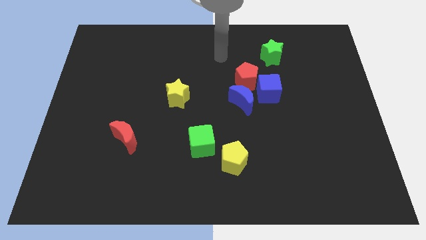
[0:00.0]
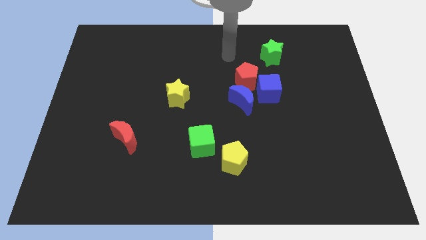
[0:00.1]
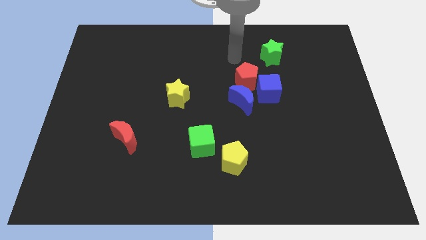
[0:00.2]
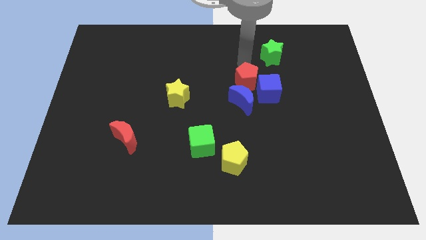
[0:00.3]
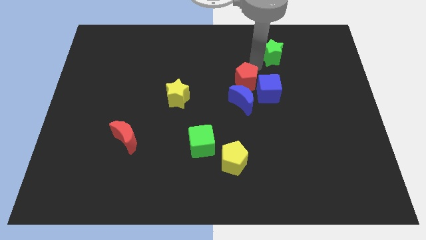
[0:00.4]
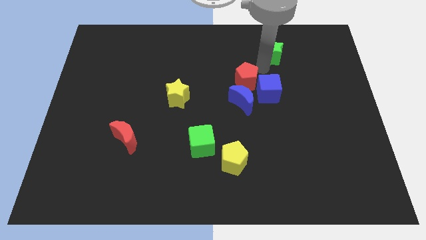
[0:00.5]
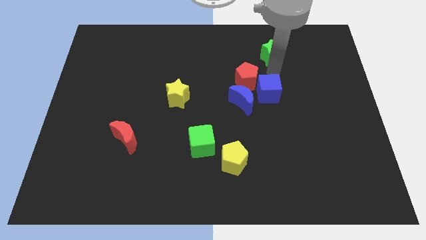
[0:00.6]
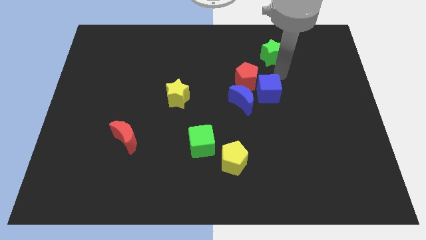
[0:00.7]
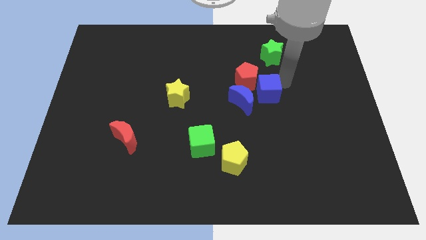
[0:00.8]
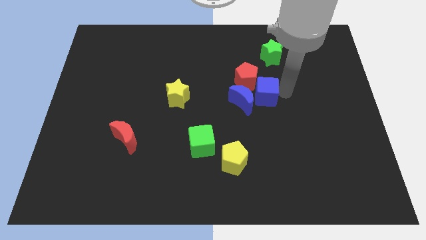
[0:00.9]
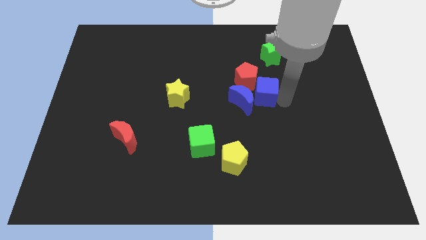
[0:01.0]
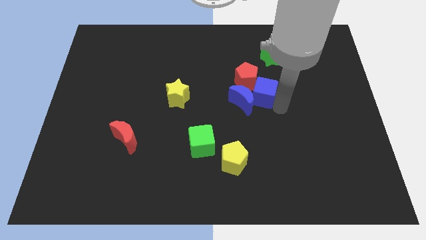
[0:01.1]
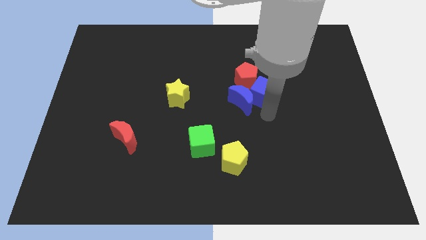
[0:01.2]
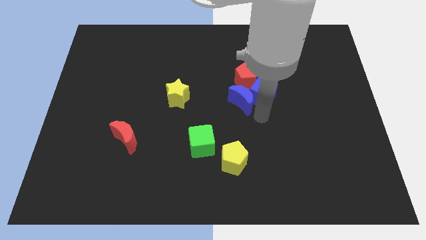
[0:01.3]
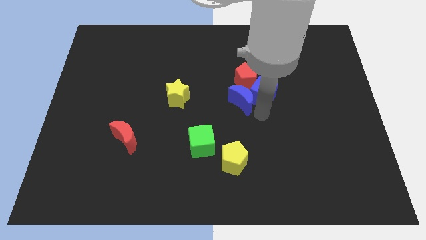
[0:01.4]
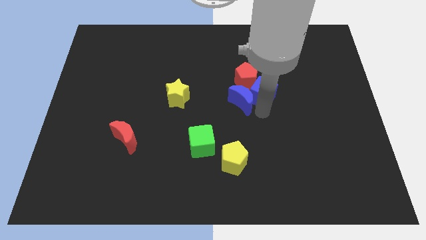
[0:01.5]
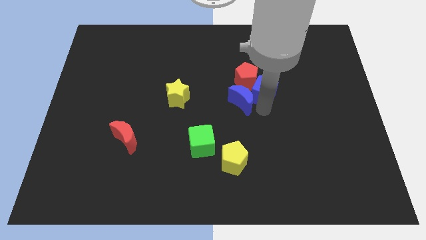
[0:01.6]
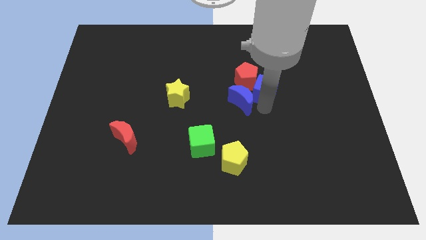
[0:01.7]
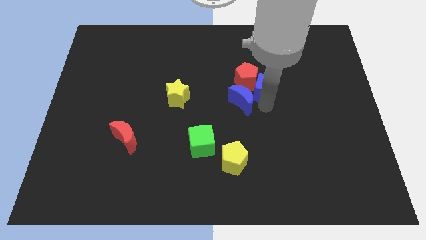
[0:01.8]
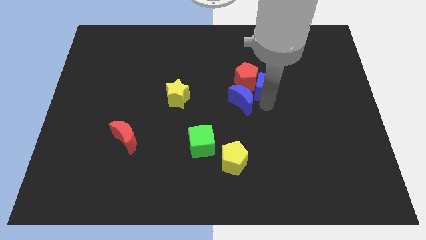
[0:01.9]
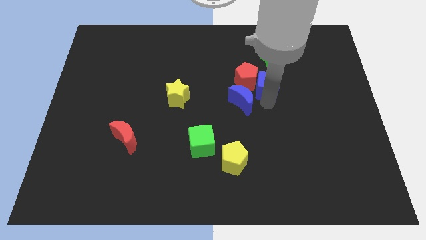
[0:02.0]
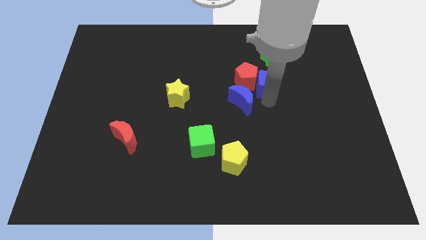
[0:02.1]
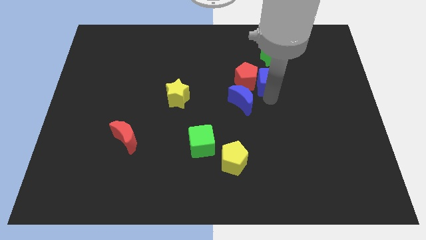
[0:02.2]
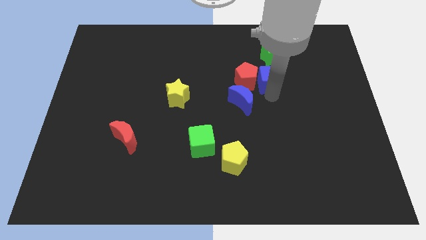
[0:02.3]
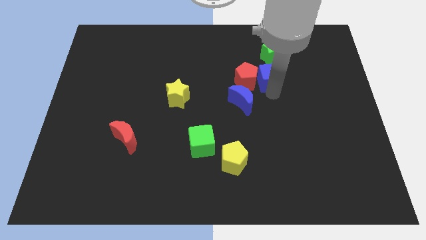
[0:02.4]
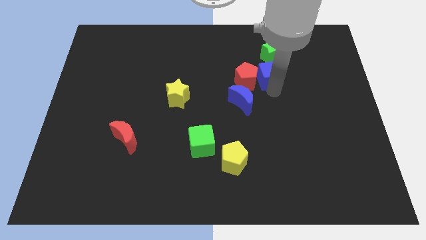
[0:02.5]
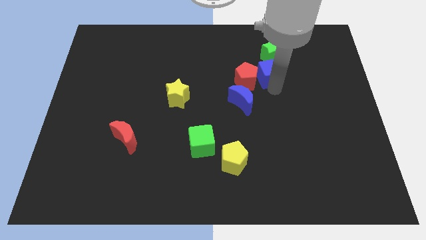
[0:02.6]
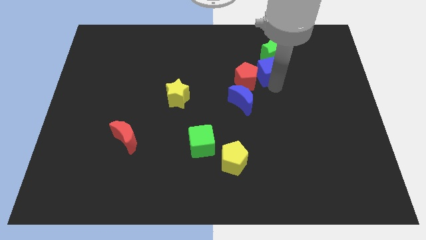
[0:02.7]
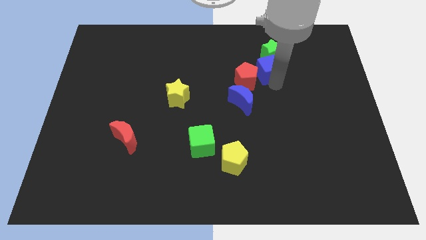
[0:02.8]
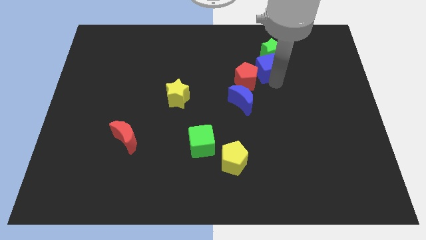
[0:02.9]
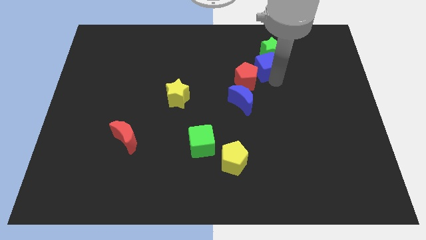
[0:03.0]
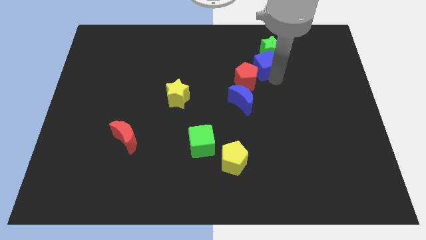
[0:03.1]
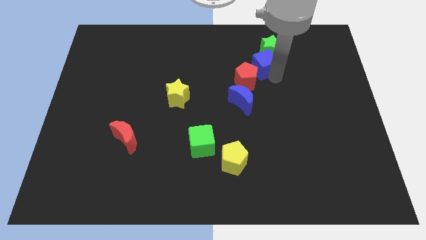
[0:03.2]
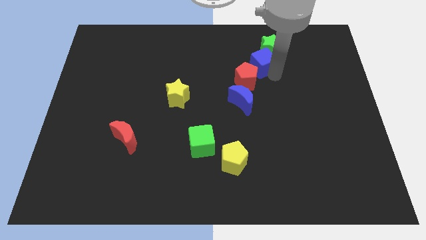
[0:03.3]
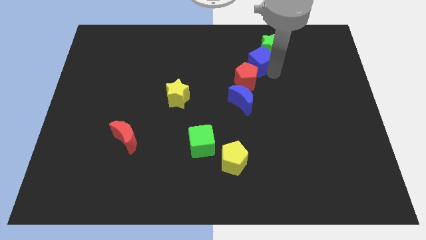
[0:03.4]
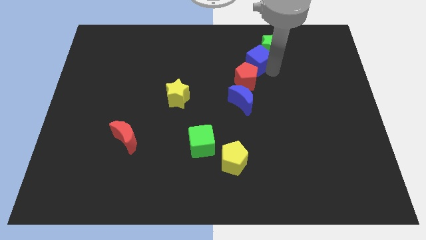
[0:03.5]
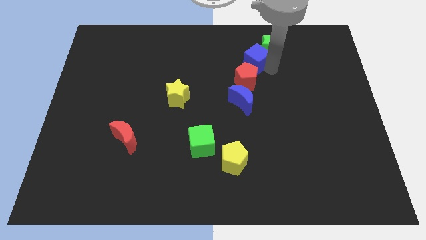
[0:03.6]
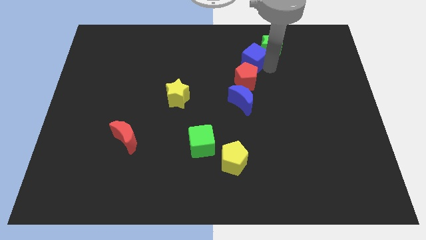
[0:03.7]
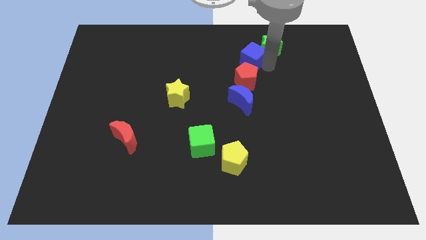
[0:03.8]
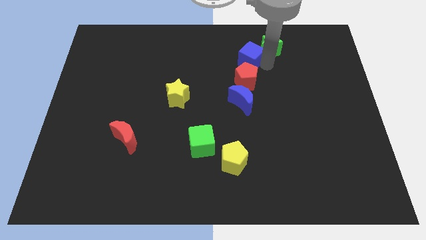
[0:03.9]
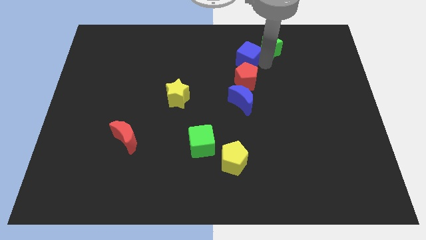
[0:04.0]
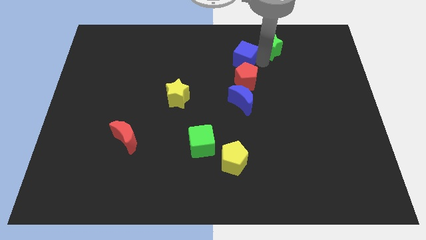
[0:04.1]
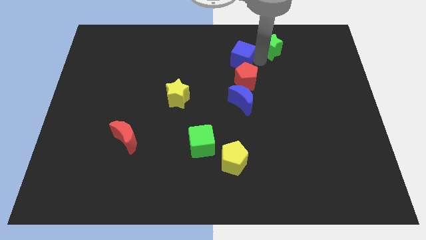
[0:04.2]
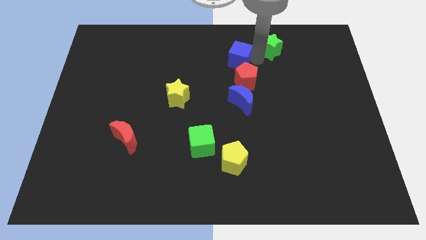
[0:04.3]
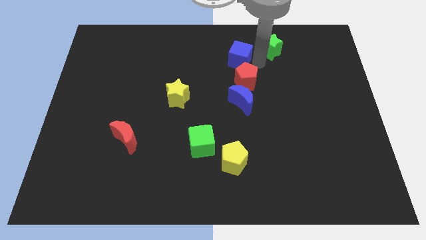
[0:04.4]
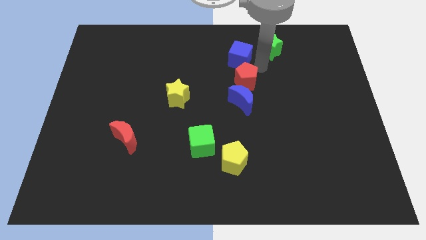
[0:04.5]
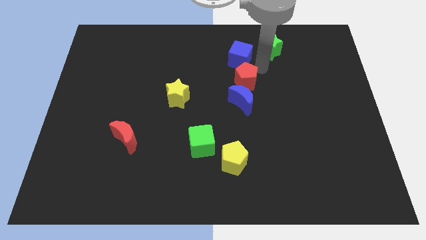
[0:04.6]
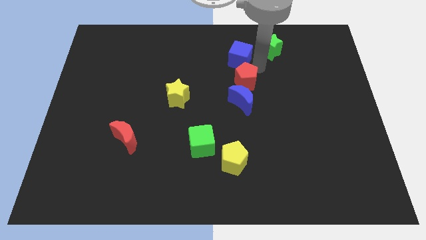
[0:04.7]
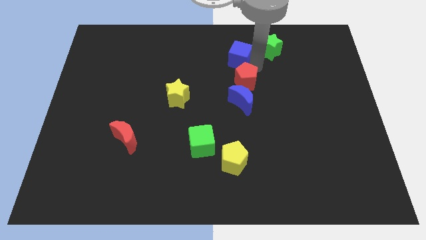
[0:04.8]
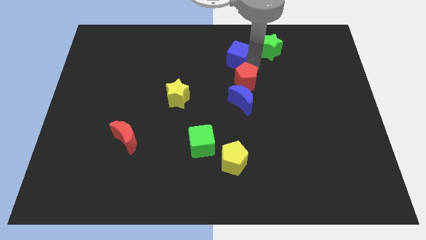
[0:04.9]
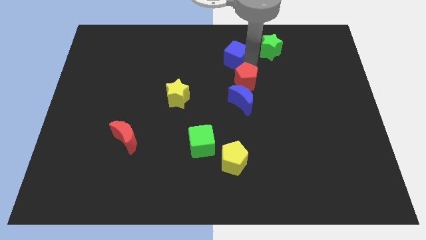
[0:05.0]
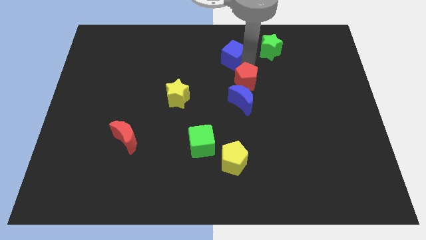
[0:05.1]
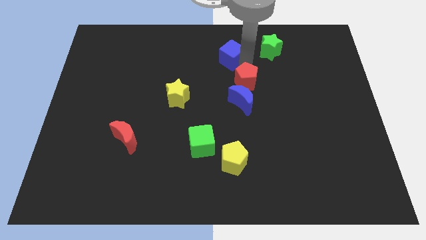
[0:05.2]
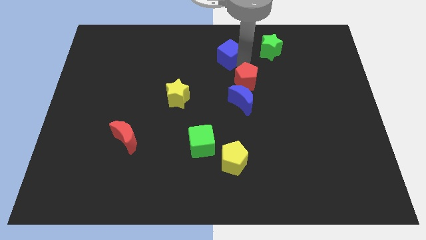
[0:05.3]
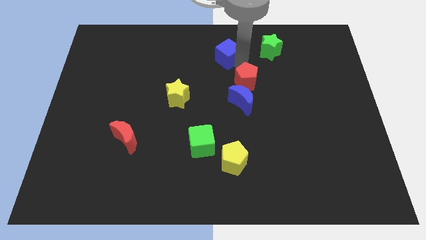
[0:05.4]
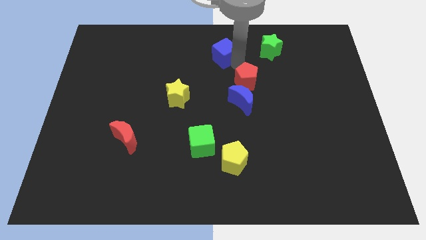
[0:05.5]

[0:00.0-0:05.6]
slide the blue cube to the top
